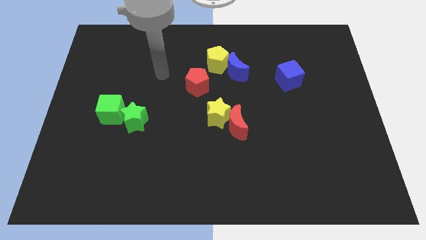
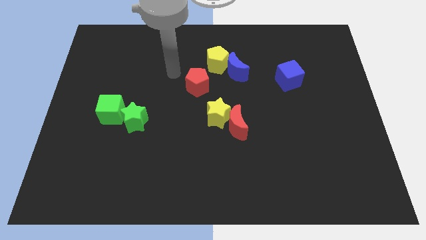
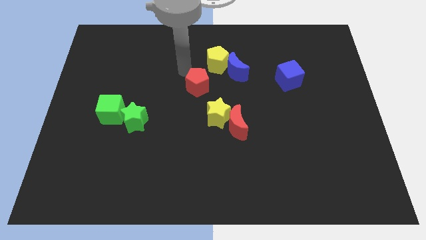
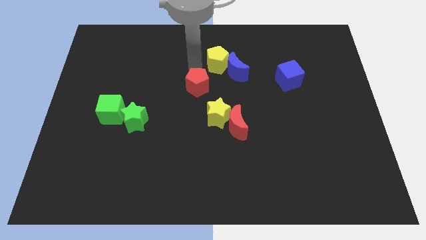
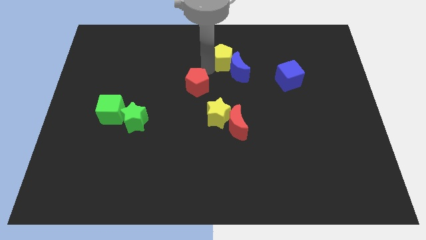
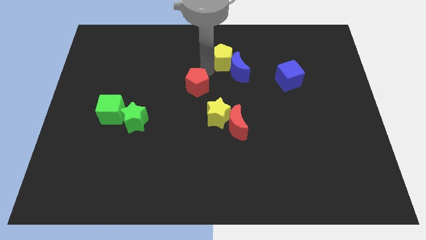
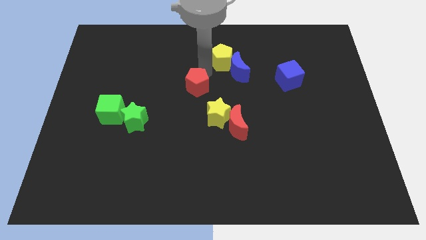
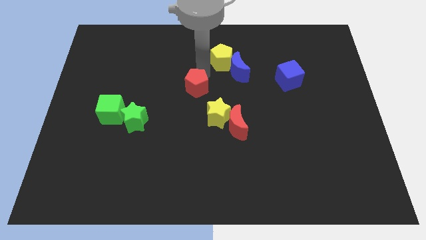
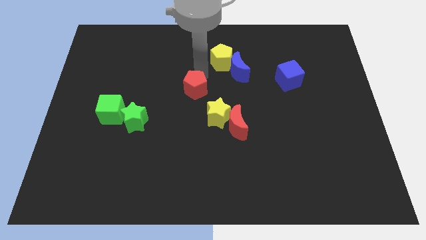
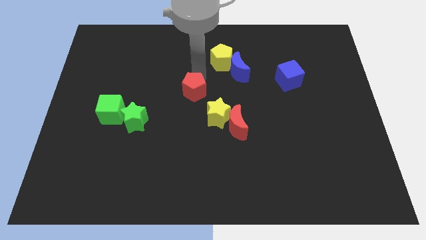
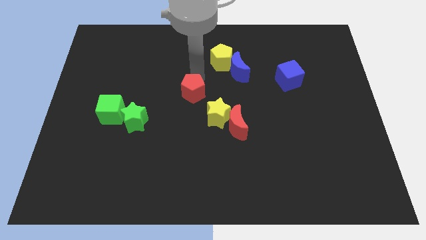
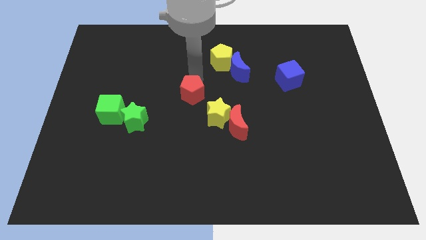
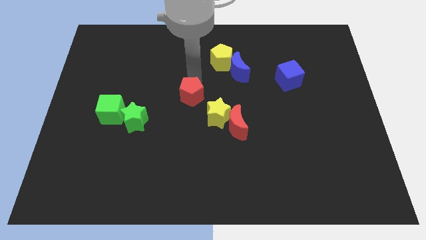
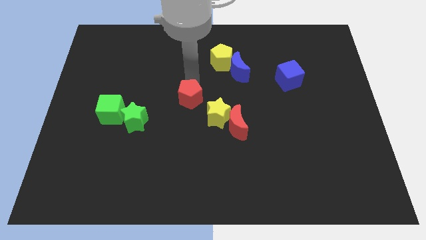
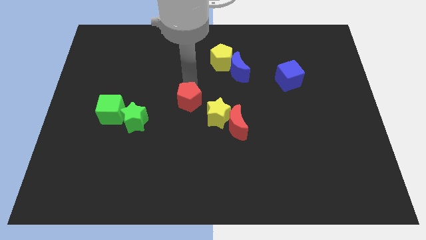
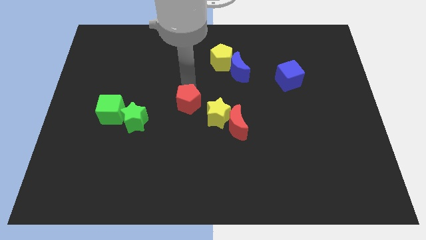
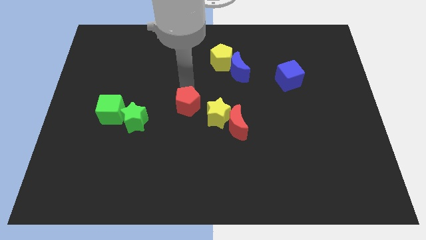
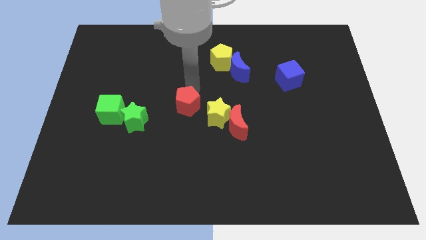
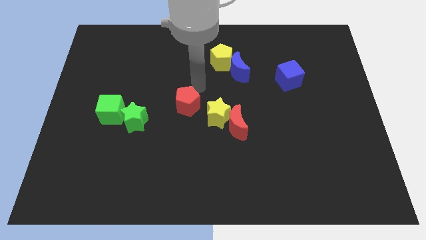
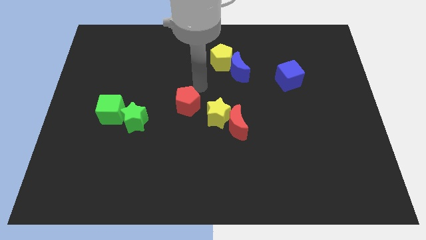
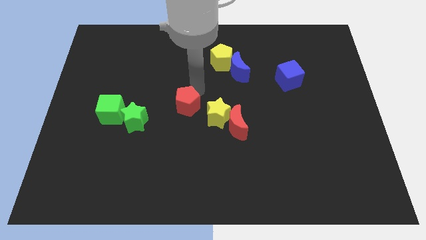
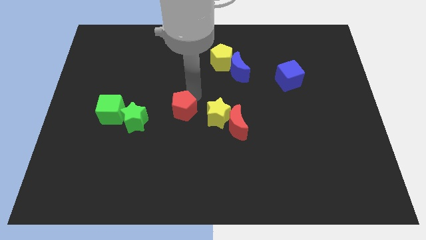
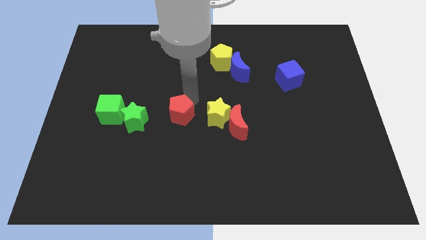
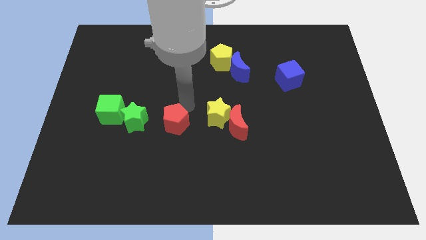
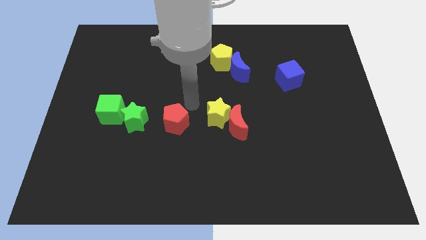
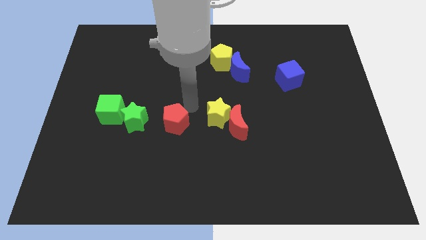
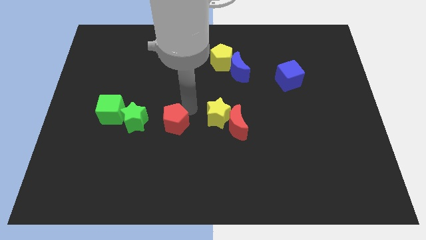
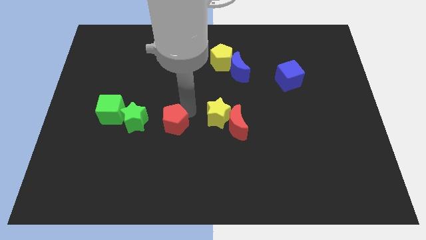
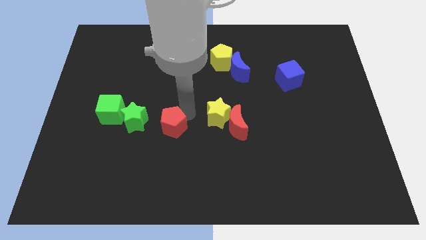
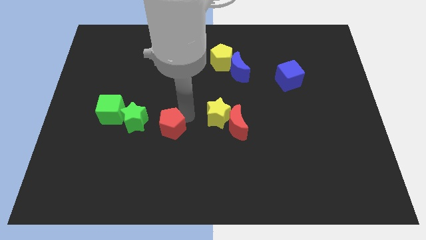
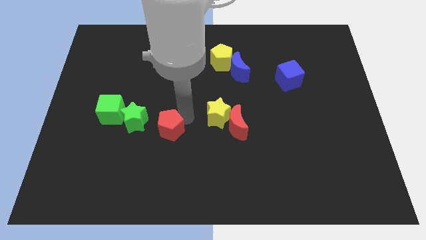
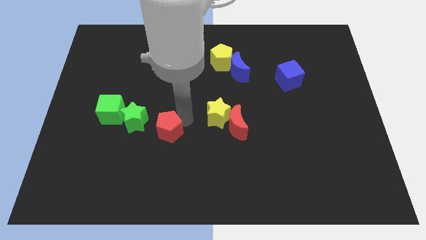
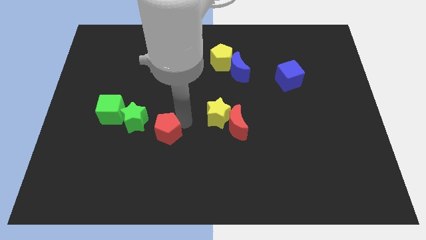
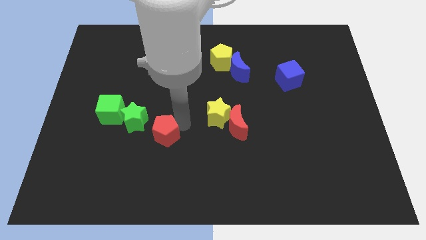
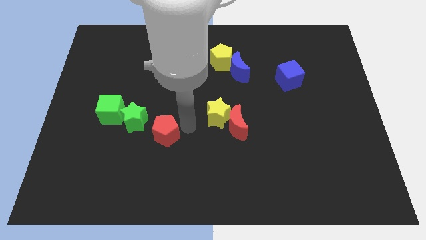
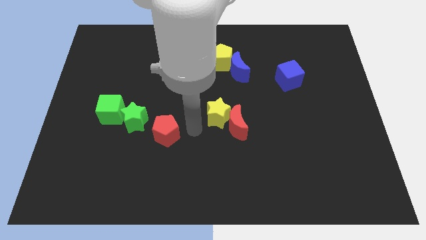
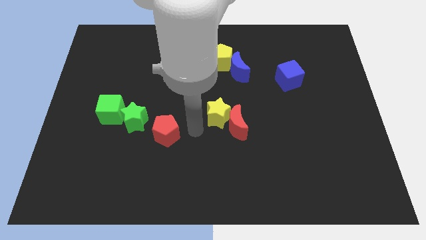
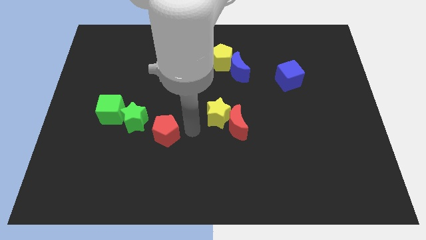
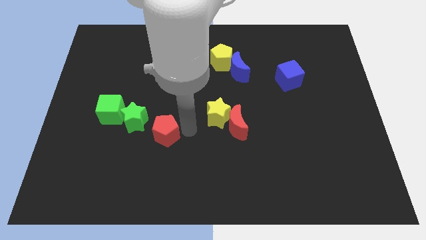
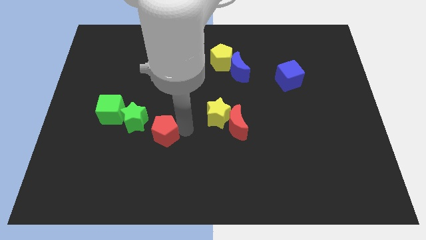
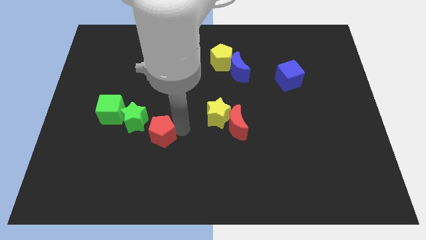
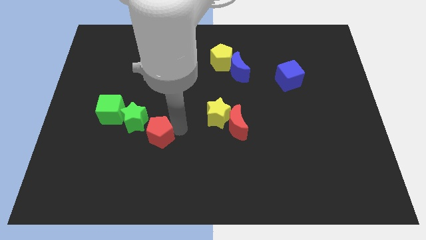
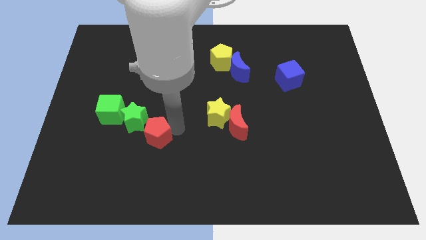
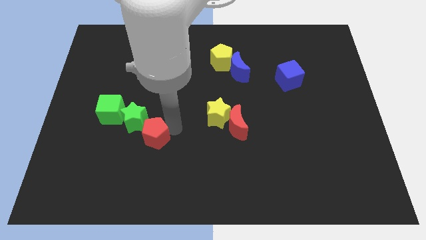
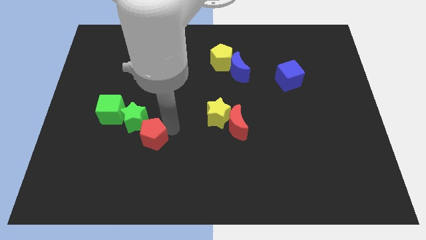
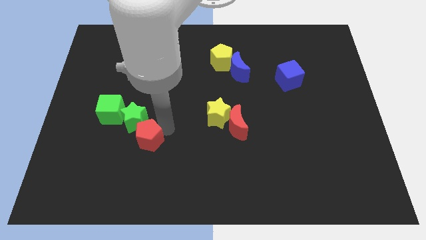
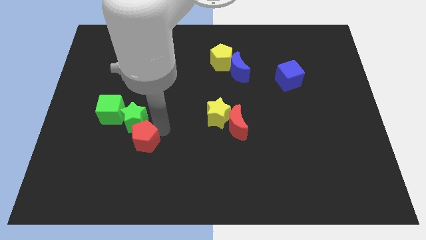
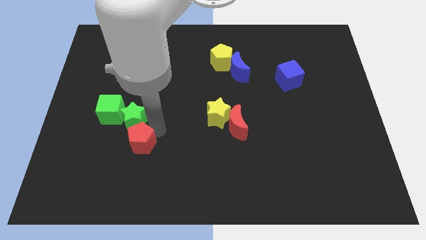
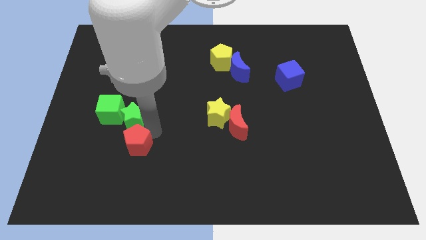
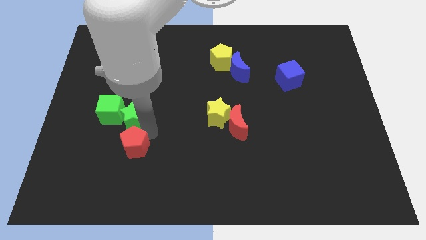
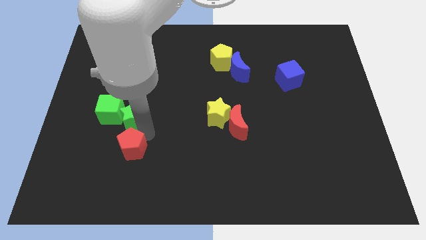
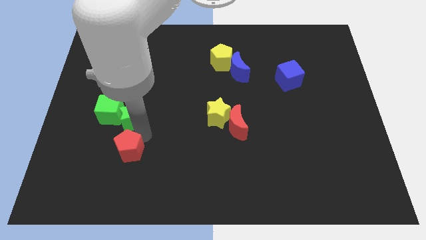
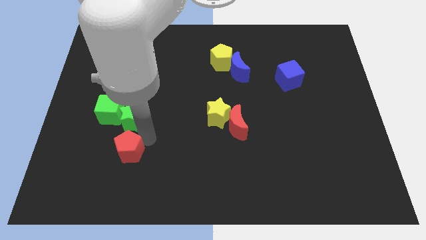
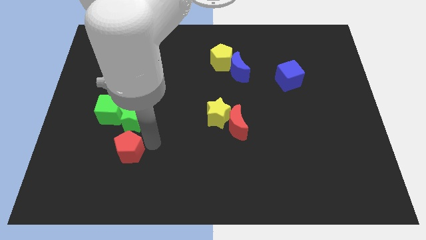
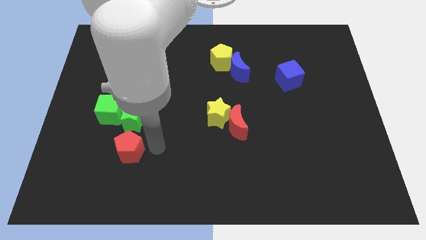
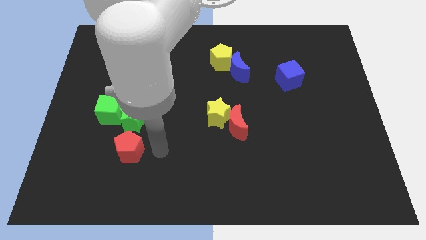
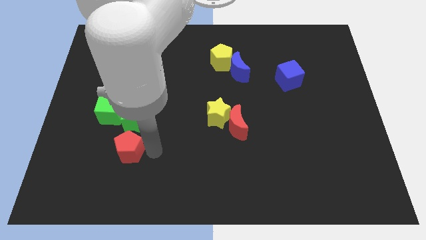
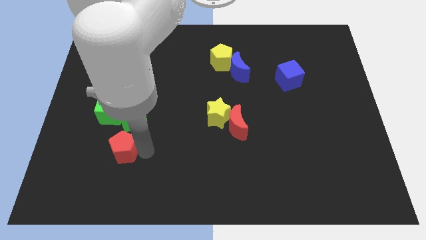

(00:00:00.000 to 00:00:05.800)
put the red pentagon below the green cube

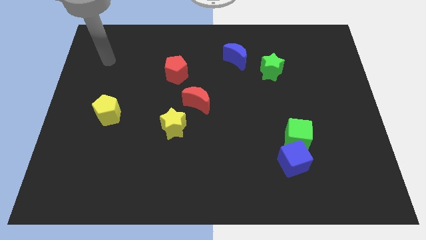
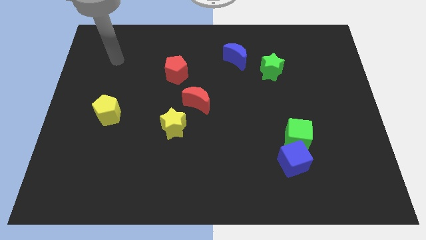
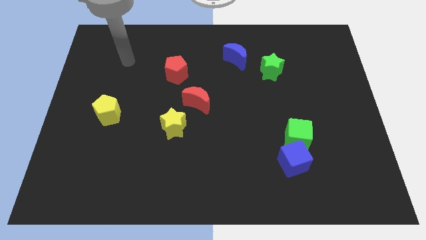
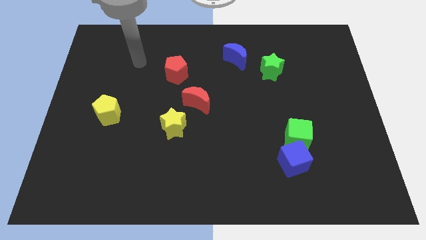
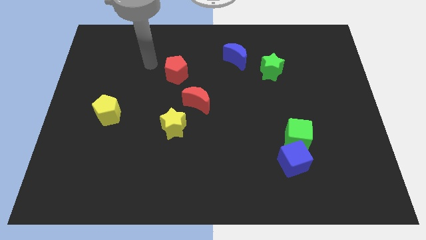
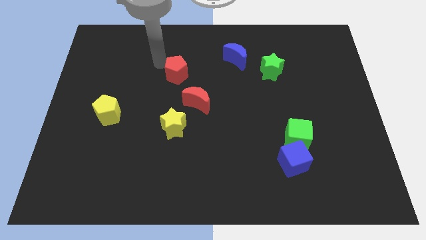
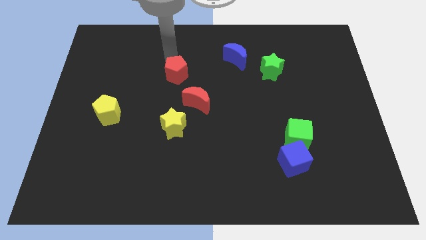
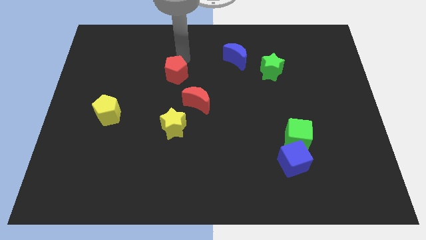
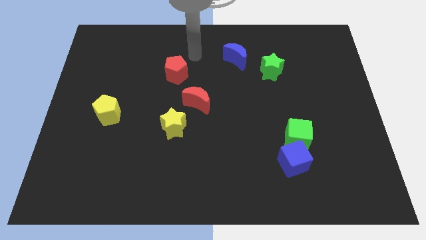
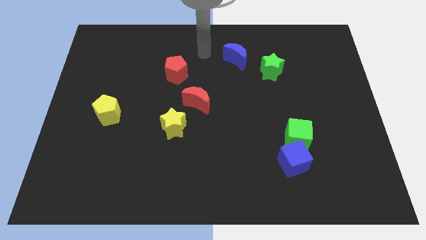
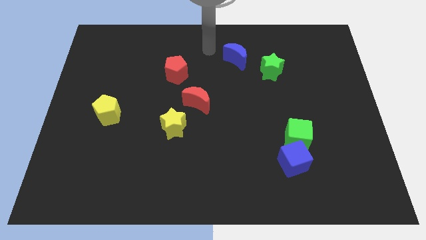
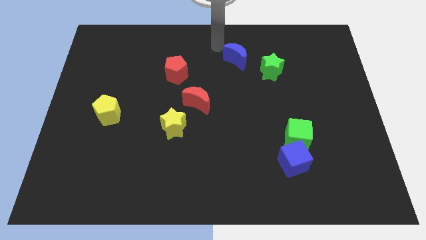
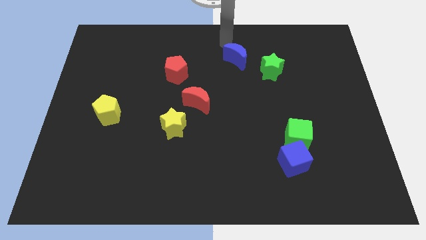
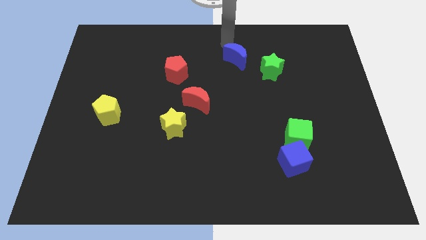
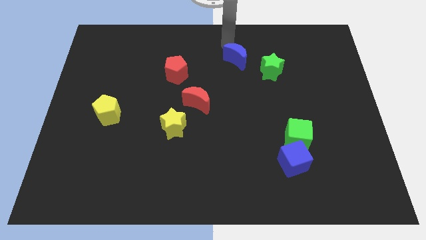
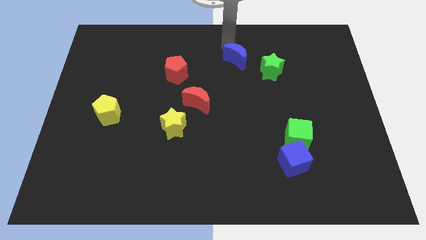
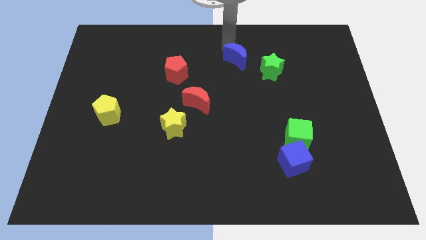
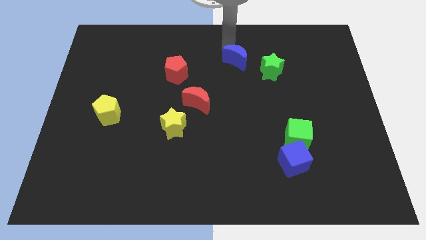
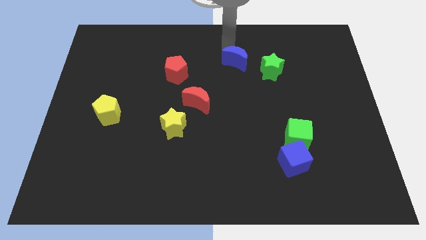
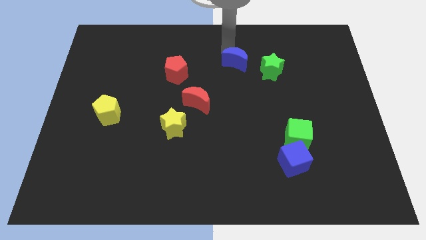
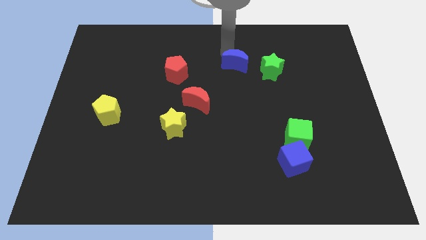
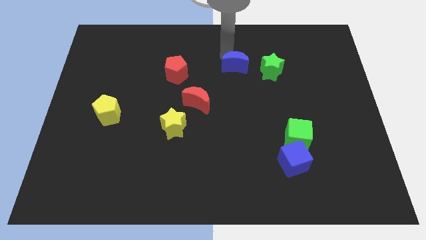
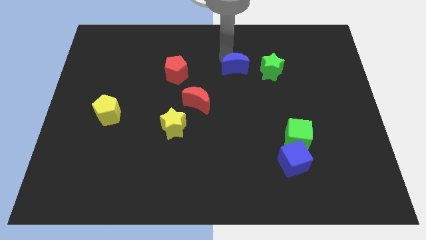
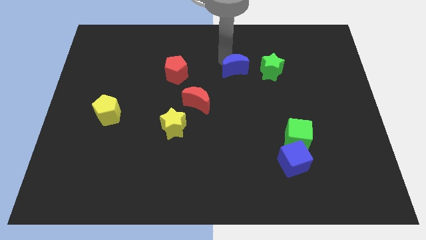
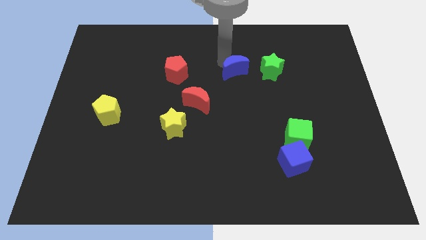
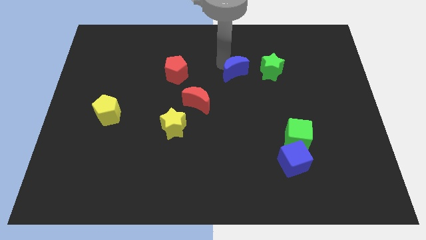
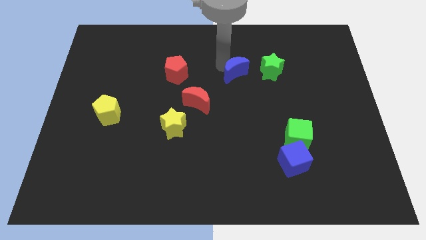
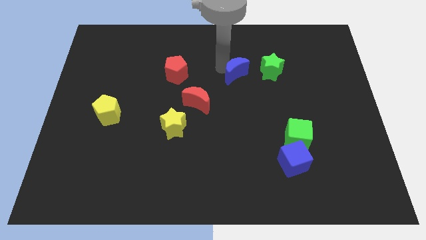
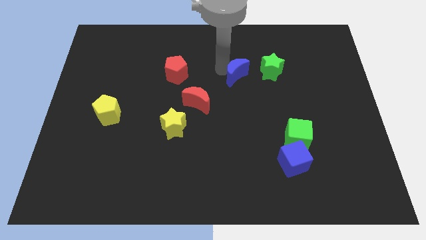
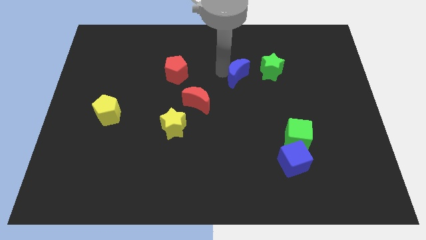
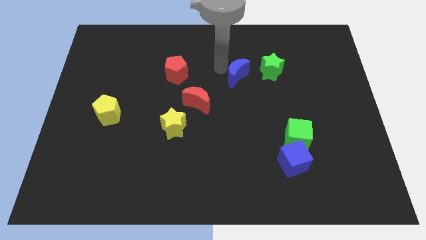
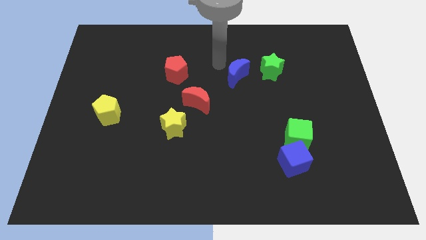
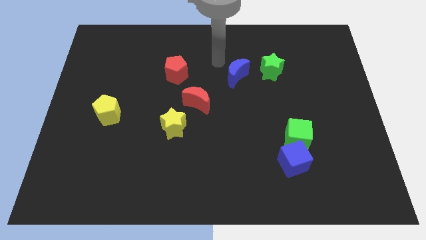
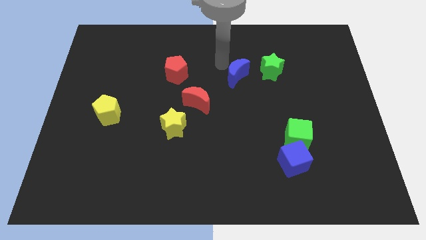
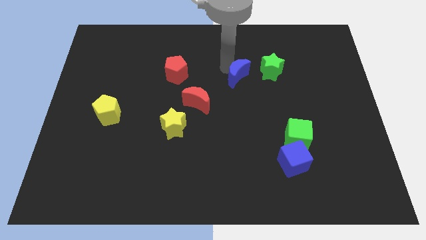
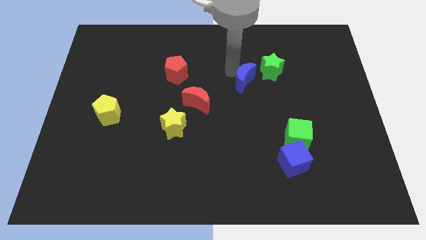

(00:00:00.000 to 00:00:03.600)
move the blue moon to the bottom left side of the green star
